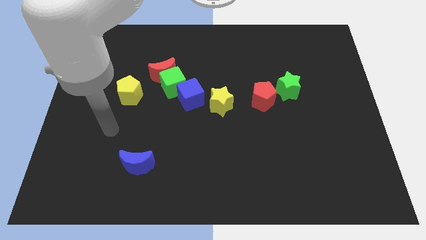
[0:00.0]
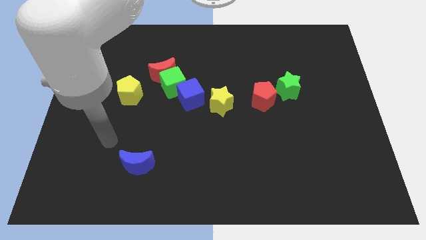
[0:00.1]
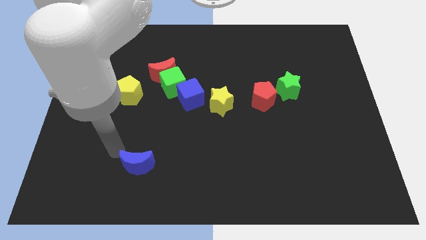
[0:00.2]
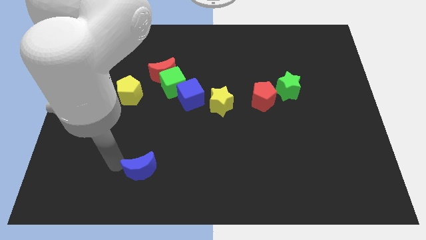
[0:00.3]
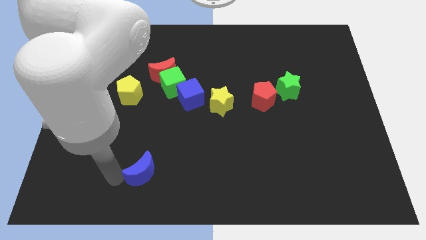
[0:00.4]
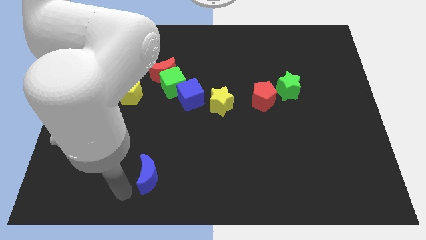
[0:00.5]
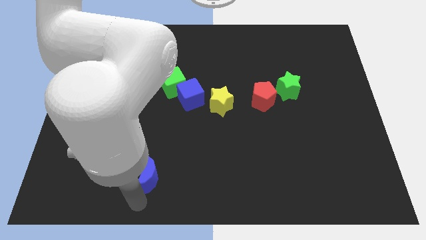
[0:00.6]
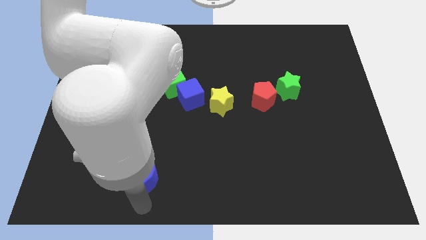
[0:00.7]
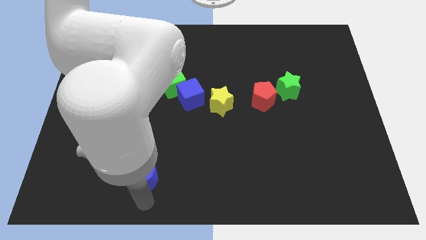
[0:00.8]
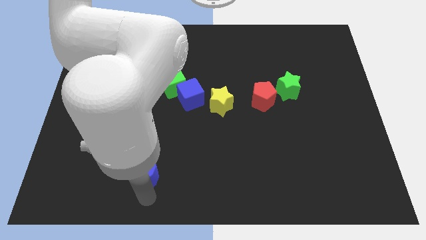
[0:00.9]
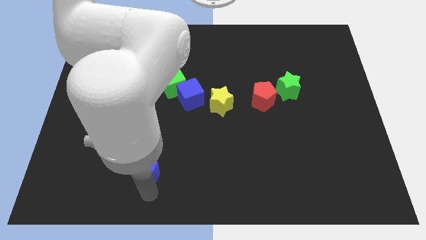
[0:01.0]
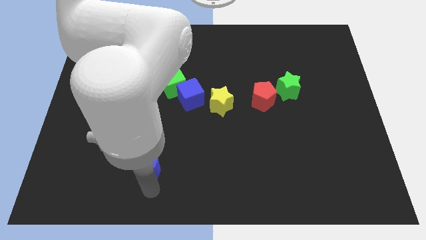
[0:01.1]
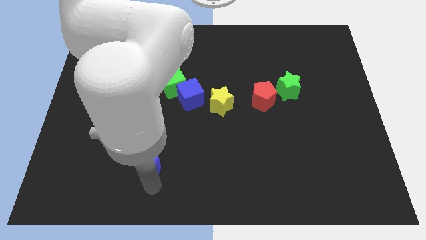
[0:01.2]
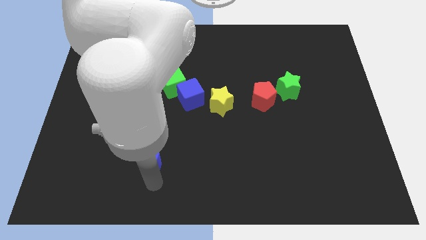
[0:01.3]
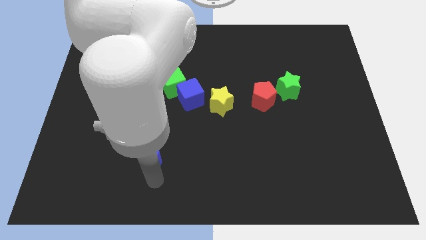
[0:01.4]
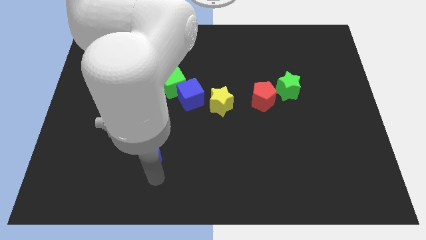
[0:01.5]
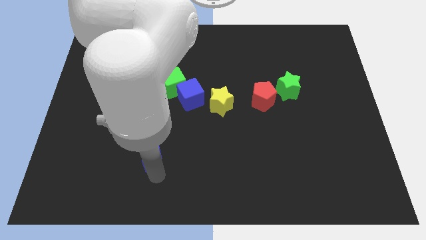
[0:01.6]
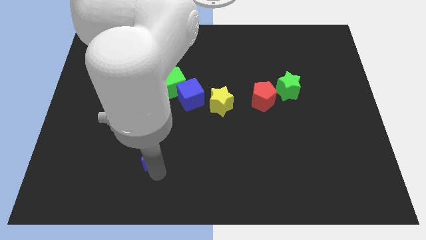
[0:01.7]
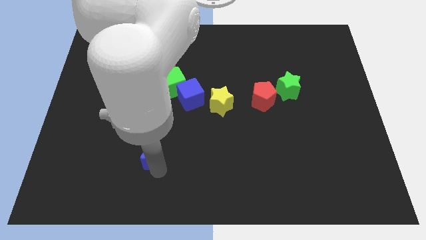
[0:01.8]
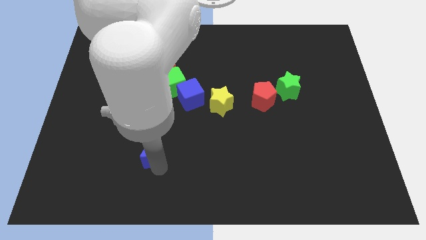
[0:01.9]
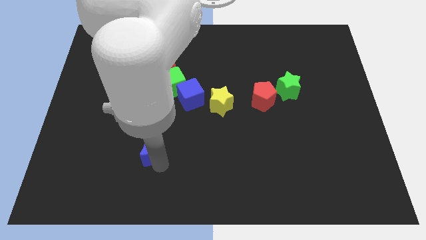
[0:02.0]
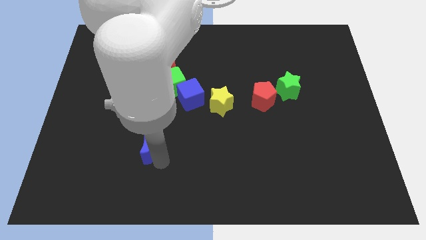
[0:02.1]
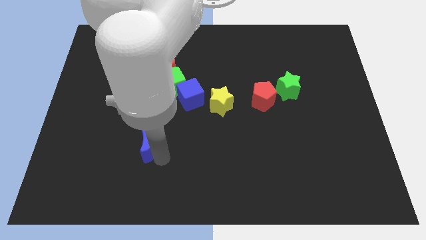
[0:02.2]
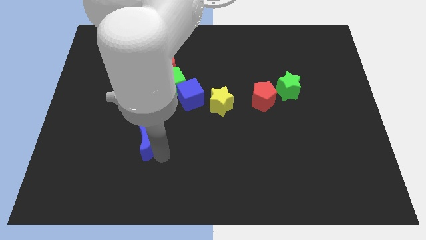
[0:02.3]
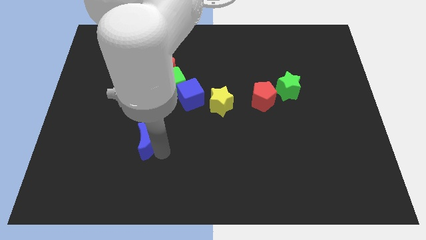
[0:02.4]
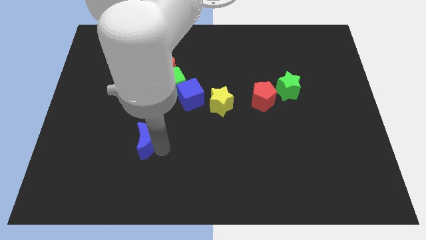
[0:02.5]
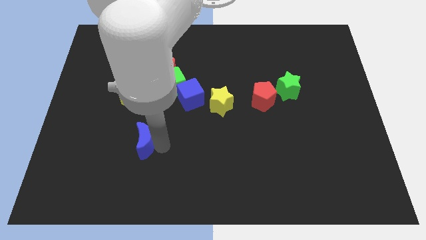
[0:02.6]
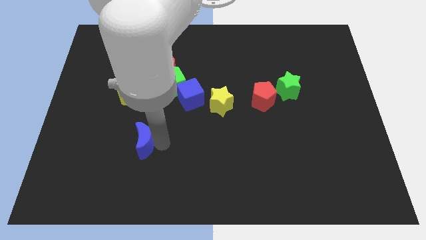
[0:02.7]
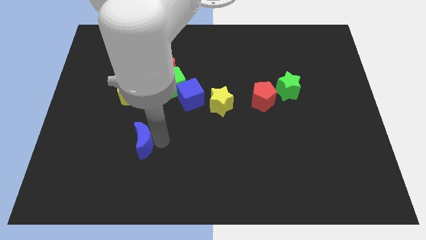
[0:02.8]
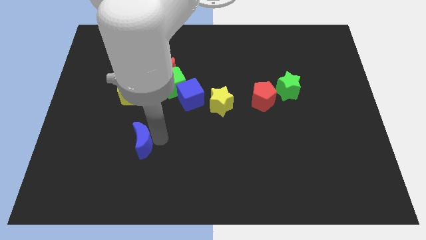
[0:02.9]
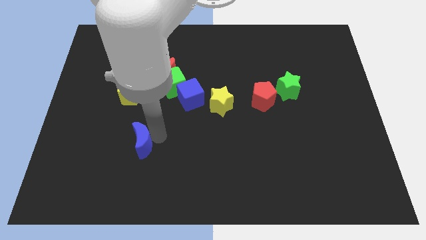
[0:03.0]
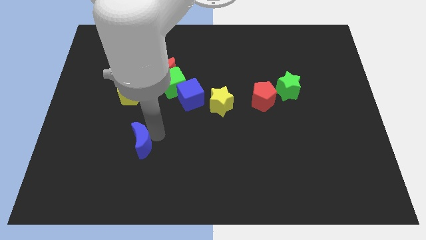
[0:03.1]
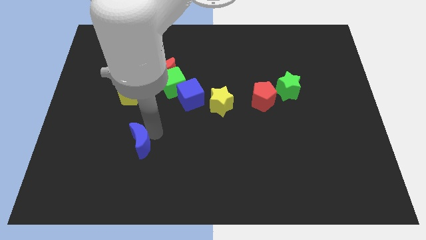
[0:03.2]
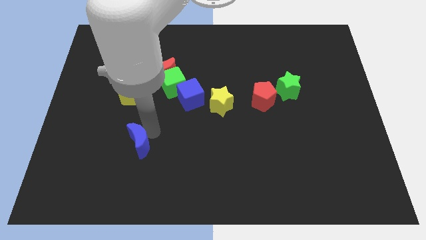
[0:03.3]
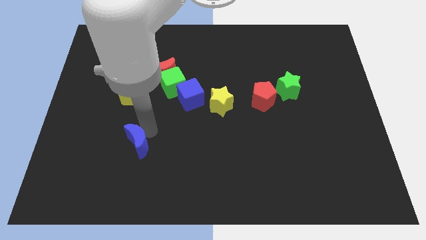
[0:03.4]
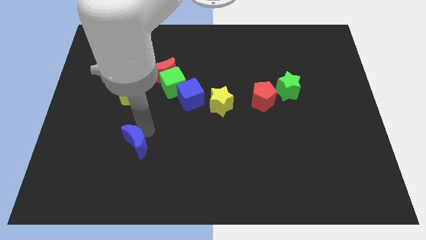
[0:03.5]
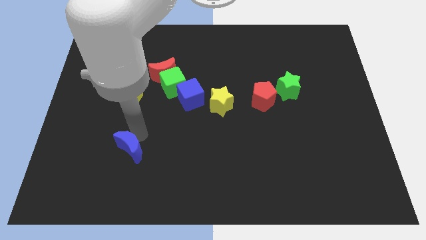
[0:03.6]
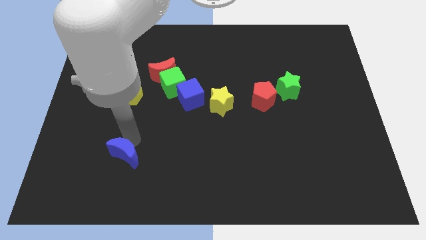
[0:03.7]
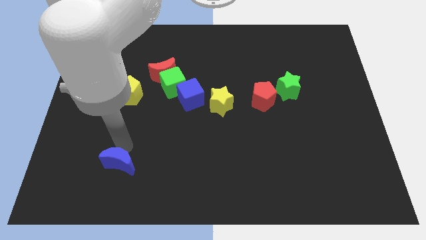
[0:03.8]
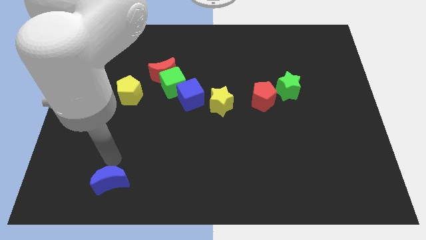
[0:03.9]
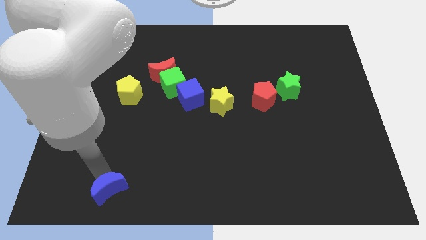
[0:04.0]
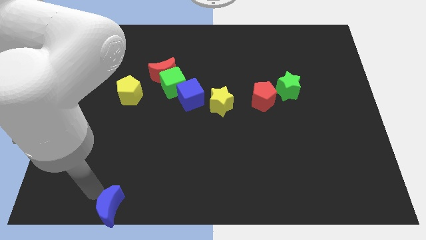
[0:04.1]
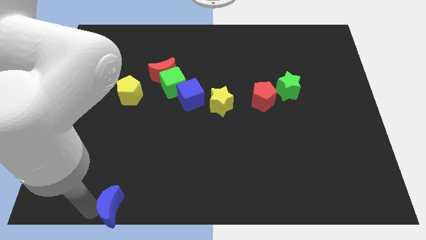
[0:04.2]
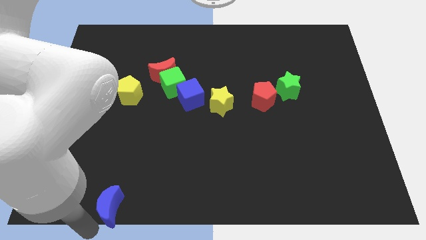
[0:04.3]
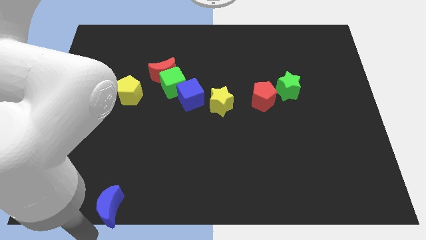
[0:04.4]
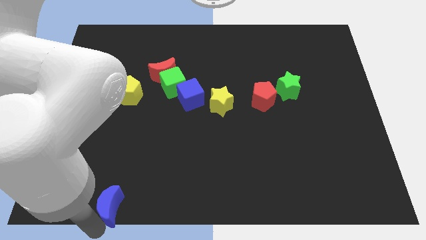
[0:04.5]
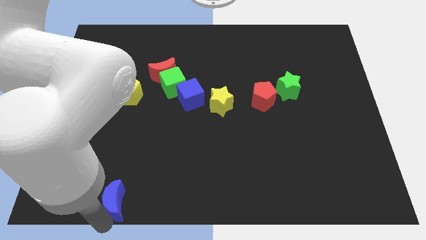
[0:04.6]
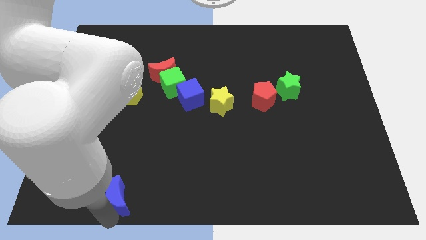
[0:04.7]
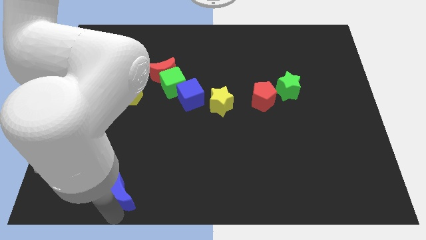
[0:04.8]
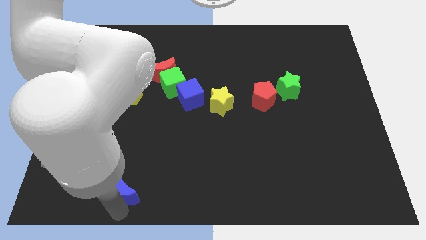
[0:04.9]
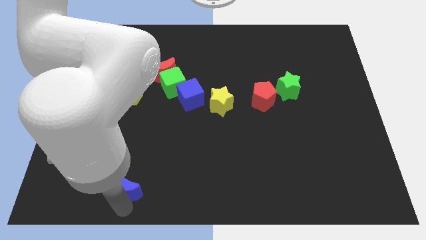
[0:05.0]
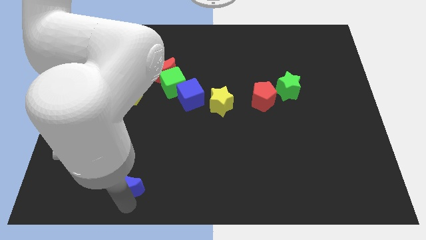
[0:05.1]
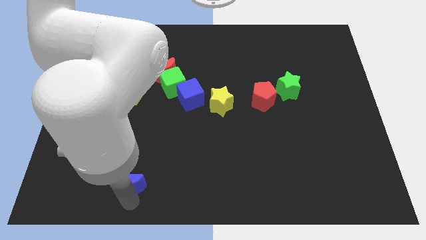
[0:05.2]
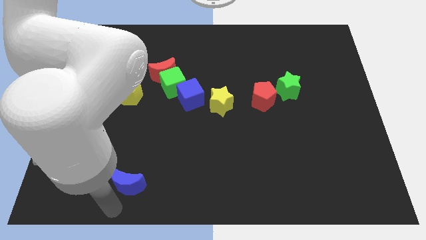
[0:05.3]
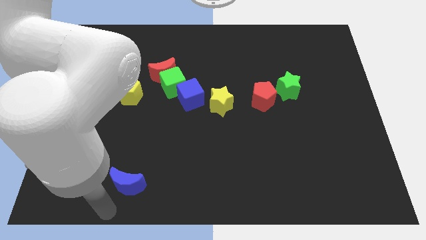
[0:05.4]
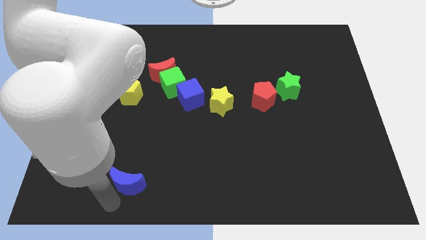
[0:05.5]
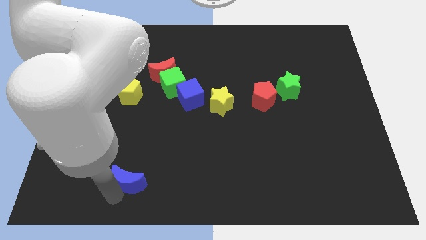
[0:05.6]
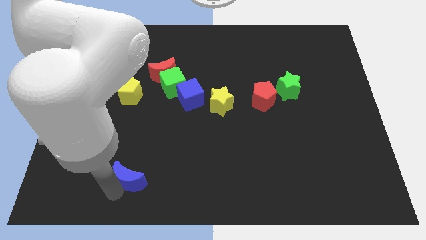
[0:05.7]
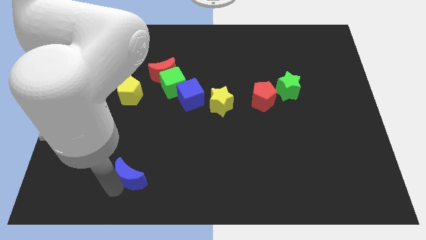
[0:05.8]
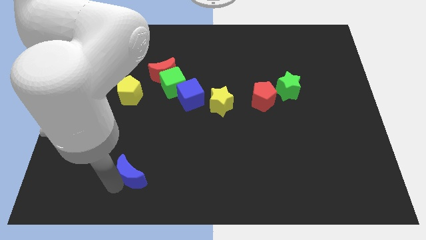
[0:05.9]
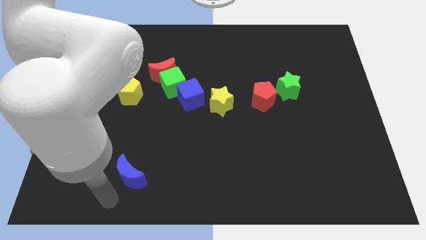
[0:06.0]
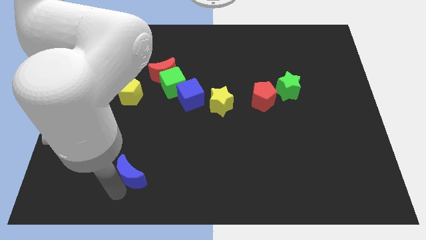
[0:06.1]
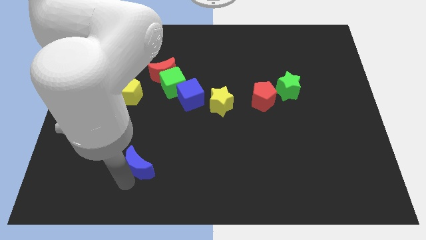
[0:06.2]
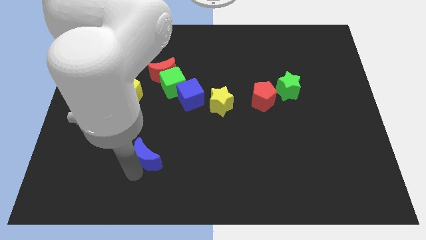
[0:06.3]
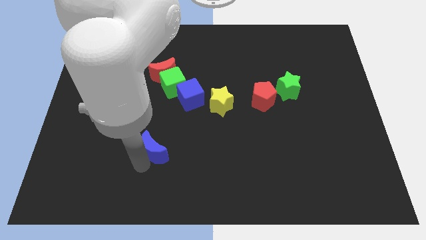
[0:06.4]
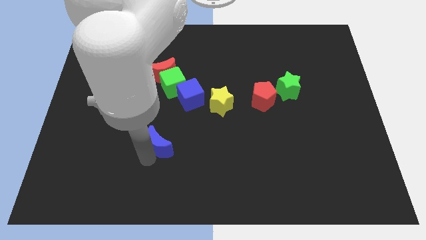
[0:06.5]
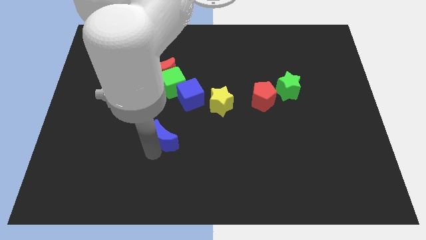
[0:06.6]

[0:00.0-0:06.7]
slightly push the blue moon up and to the right

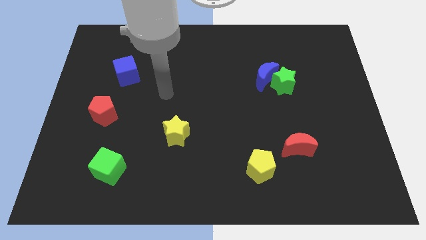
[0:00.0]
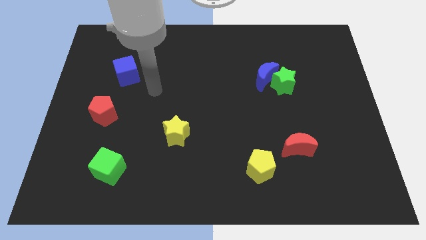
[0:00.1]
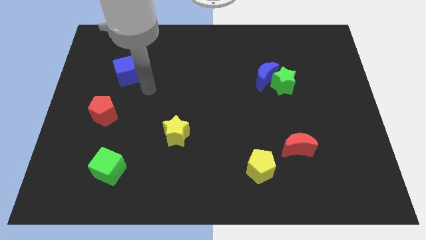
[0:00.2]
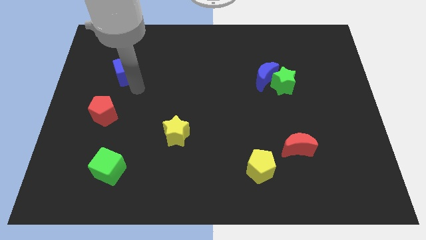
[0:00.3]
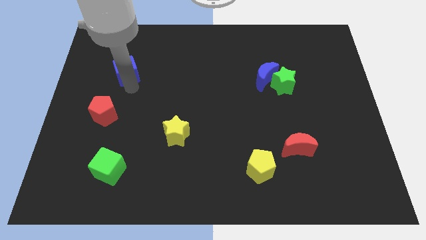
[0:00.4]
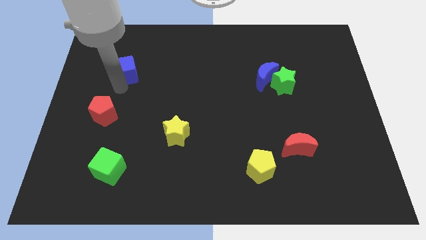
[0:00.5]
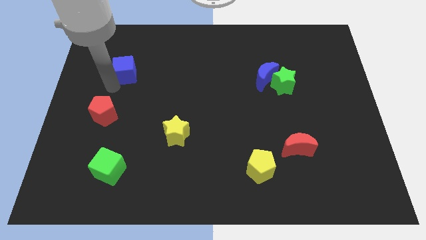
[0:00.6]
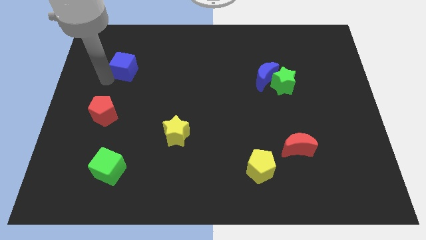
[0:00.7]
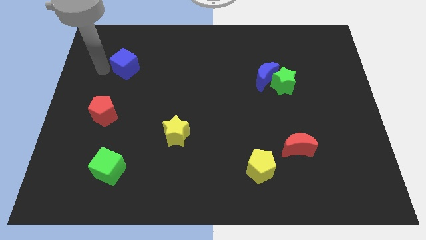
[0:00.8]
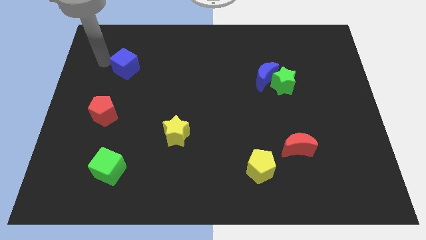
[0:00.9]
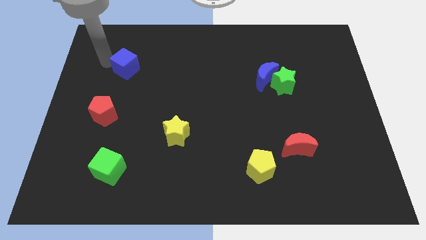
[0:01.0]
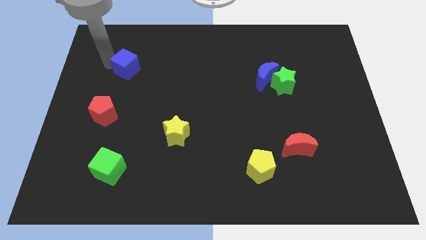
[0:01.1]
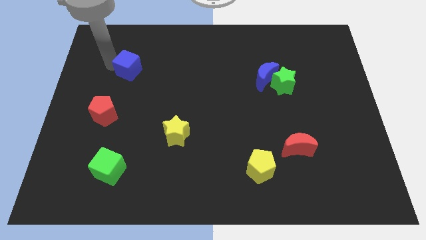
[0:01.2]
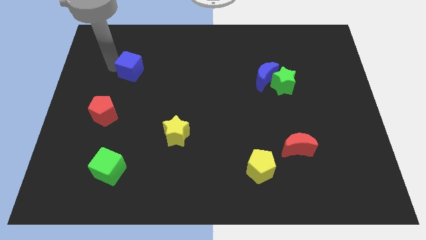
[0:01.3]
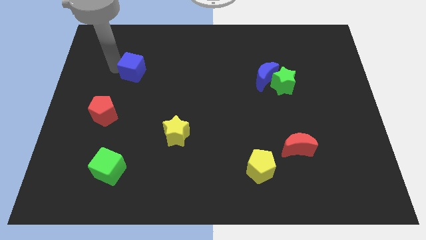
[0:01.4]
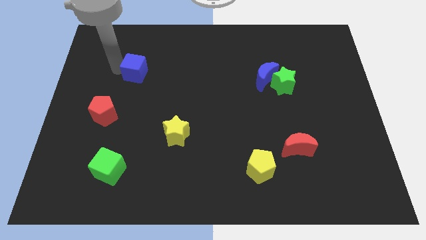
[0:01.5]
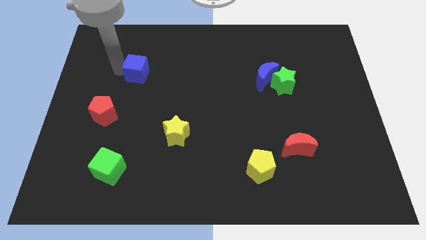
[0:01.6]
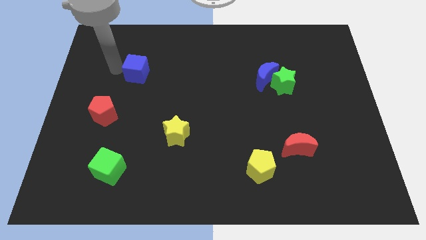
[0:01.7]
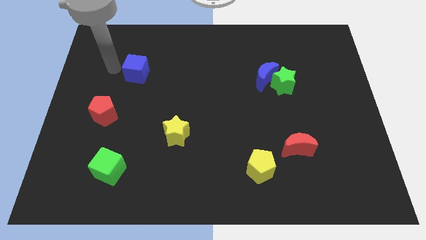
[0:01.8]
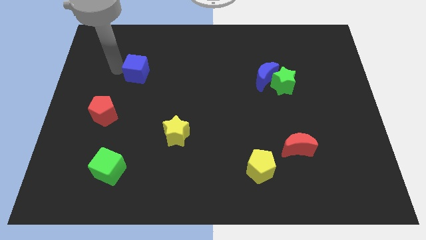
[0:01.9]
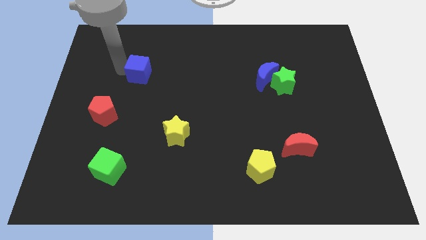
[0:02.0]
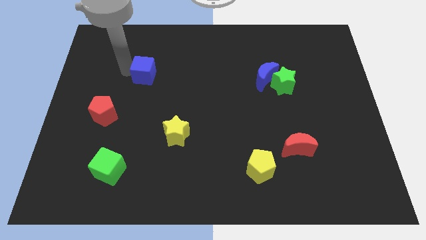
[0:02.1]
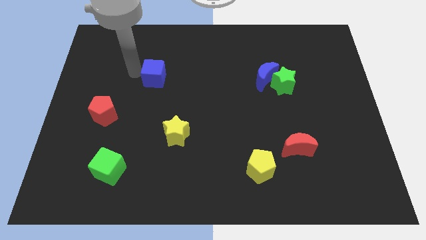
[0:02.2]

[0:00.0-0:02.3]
push the blue cube slightly to the right
